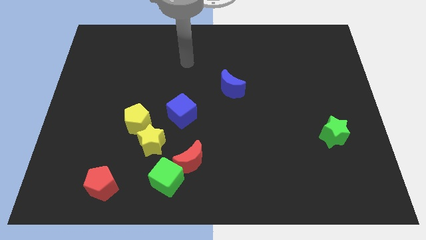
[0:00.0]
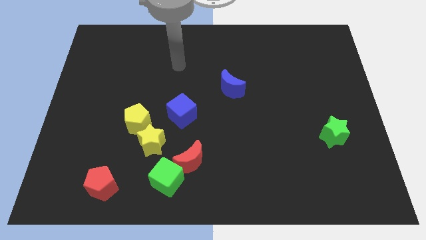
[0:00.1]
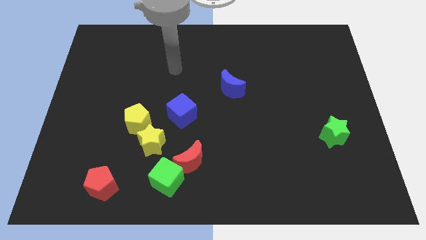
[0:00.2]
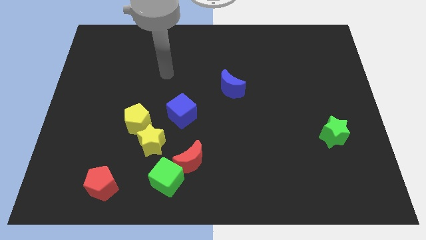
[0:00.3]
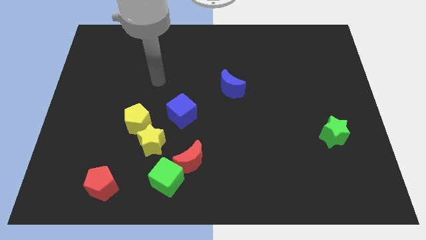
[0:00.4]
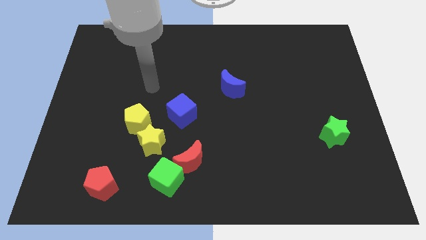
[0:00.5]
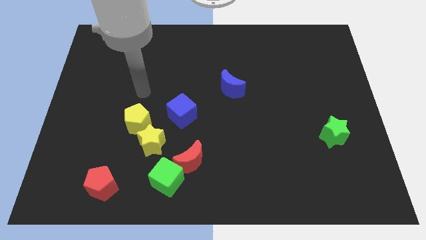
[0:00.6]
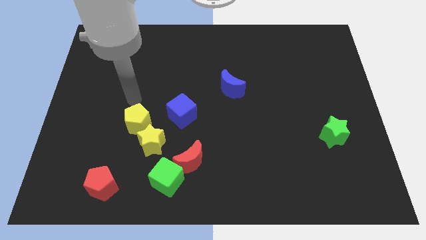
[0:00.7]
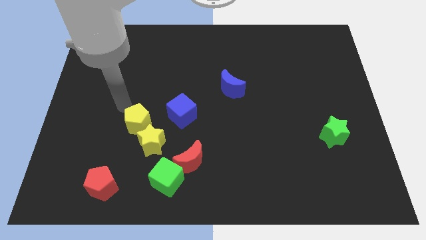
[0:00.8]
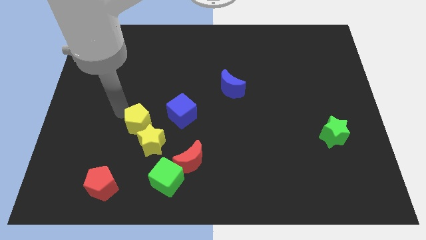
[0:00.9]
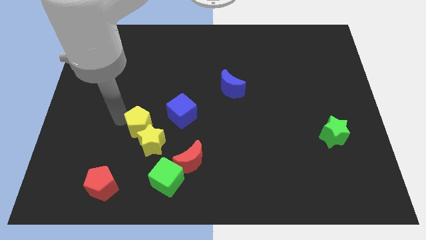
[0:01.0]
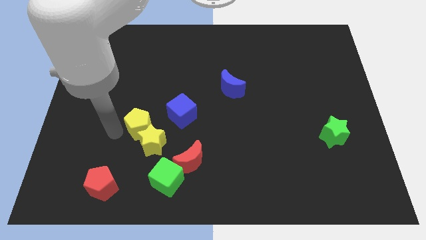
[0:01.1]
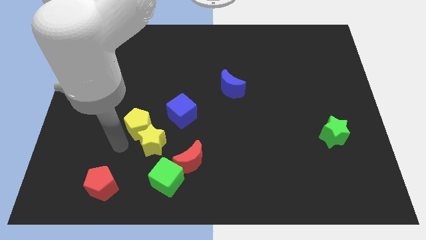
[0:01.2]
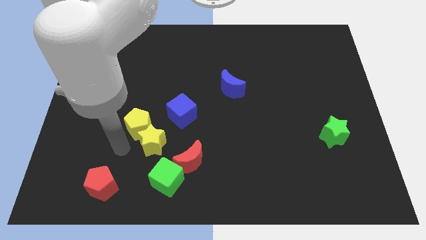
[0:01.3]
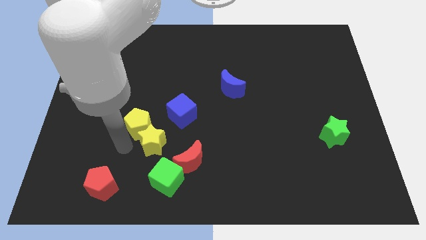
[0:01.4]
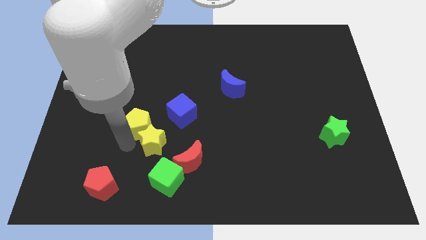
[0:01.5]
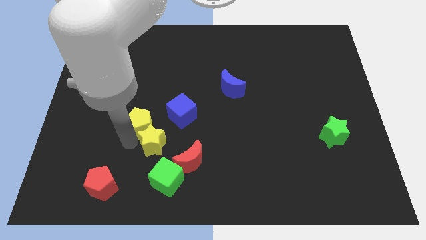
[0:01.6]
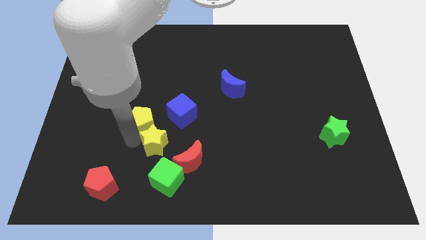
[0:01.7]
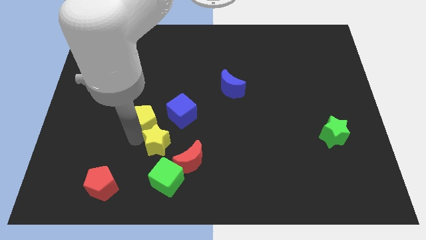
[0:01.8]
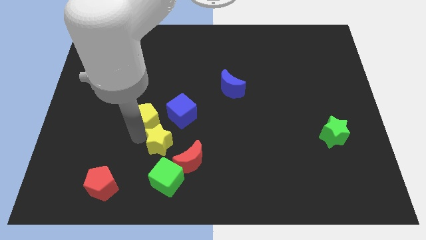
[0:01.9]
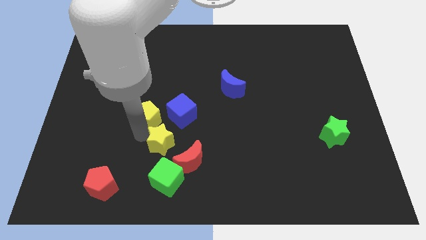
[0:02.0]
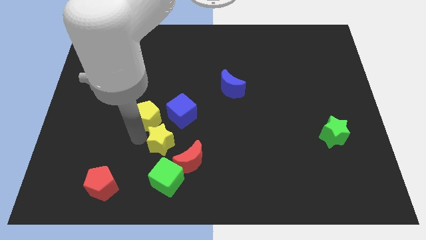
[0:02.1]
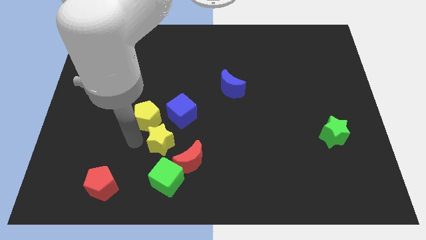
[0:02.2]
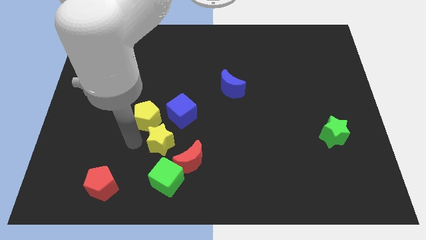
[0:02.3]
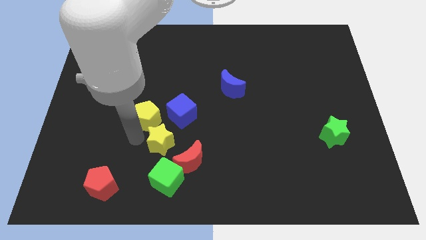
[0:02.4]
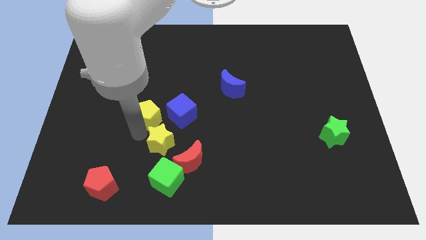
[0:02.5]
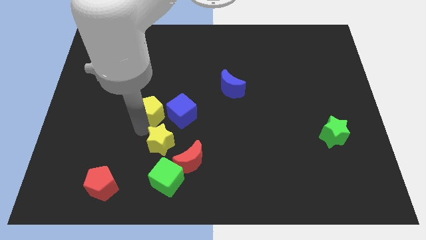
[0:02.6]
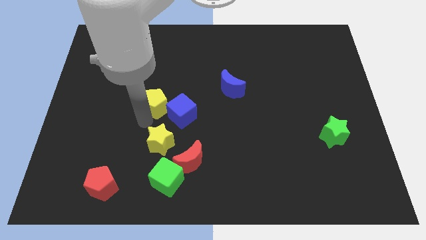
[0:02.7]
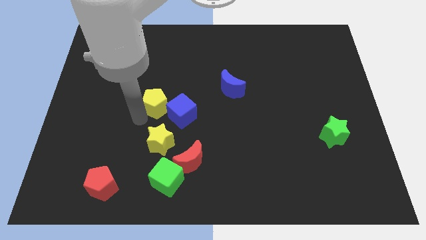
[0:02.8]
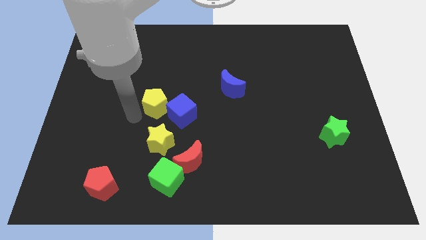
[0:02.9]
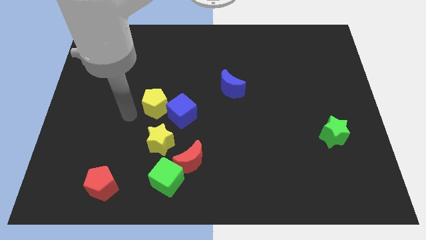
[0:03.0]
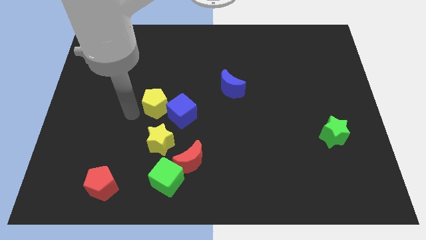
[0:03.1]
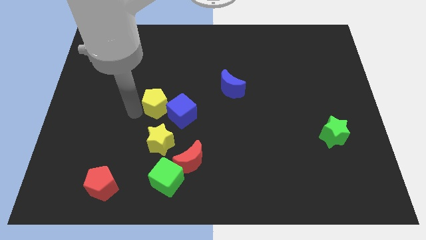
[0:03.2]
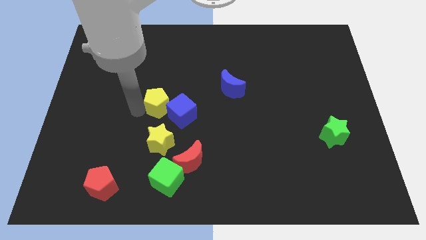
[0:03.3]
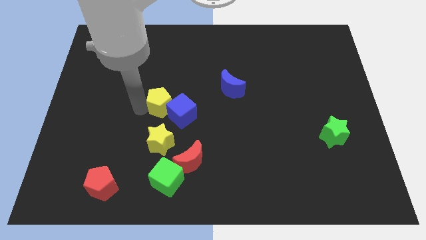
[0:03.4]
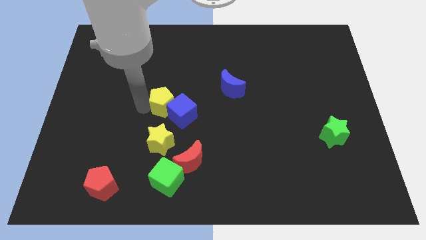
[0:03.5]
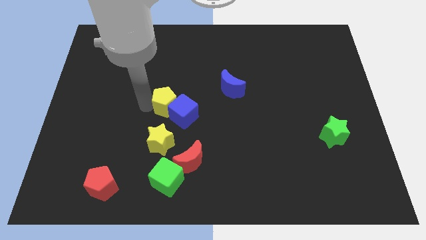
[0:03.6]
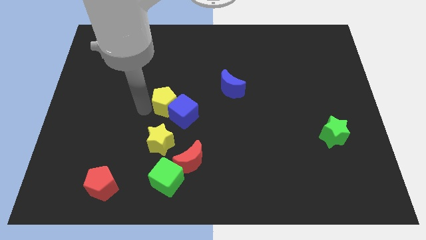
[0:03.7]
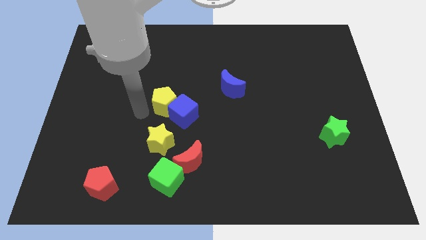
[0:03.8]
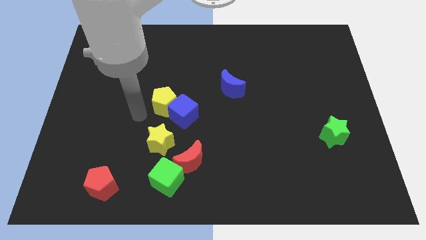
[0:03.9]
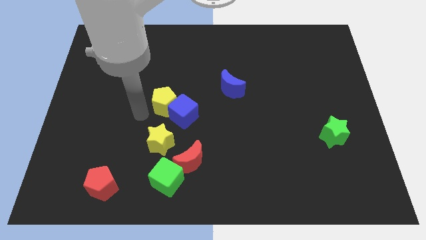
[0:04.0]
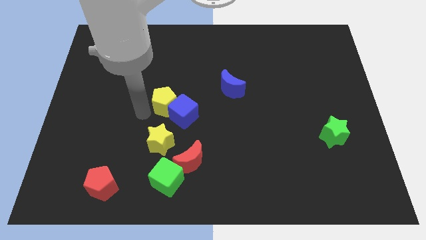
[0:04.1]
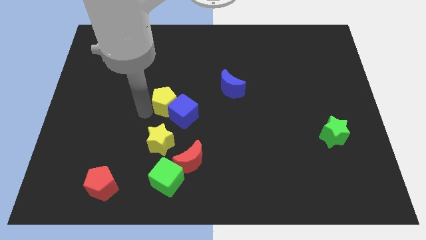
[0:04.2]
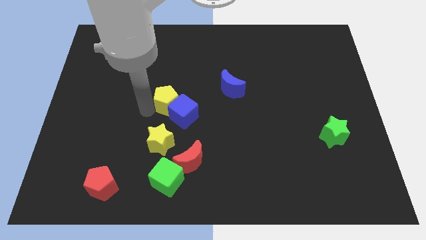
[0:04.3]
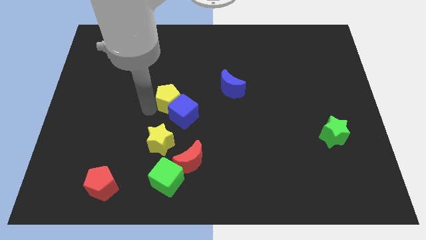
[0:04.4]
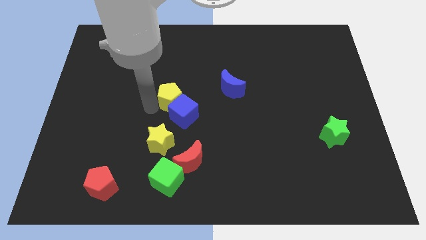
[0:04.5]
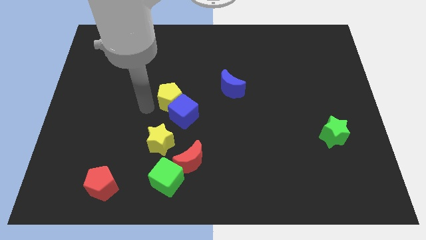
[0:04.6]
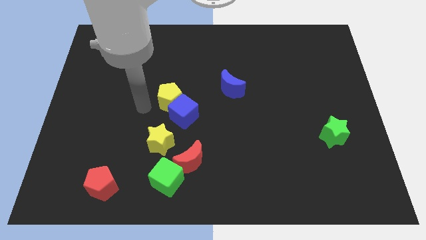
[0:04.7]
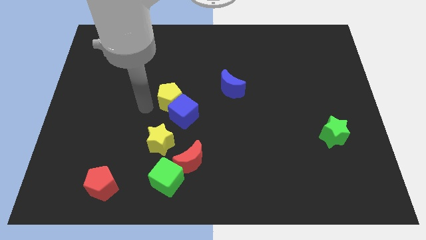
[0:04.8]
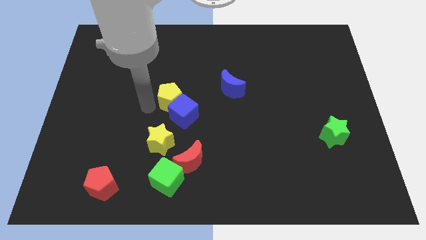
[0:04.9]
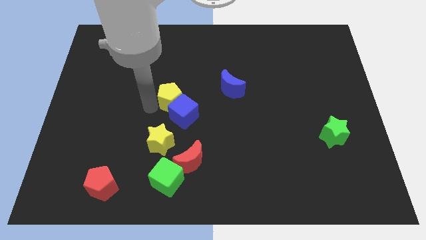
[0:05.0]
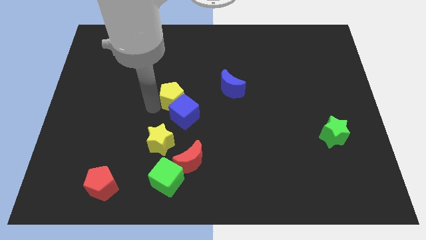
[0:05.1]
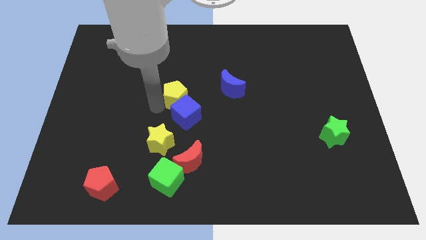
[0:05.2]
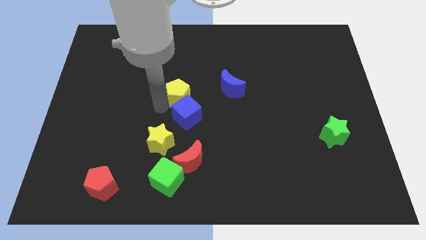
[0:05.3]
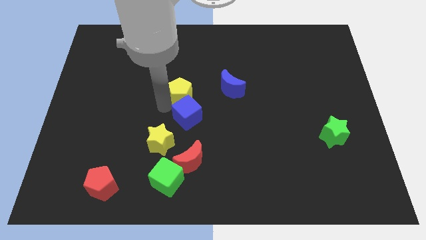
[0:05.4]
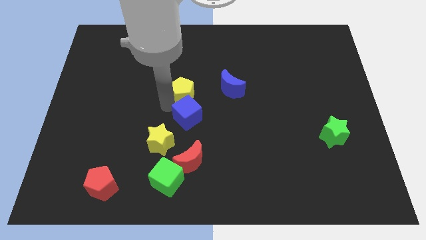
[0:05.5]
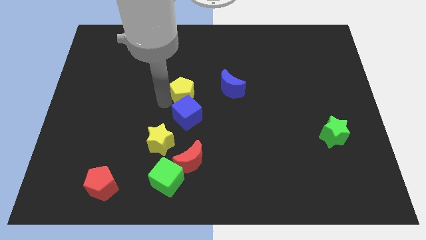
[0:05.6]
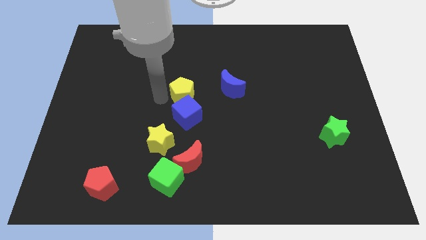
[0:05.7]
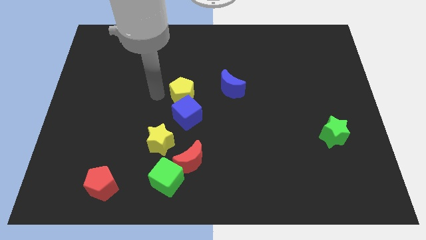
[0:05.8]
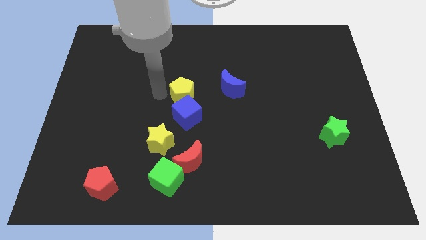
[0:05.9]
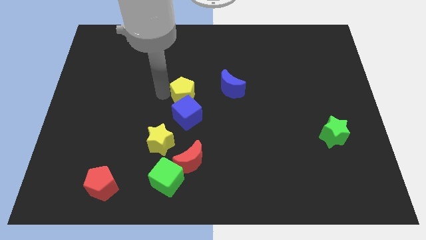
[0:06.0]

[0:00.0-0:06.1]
move the yellow pentagon to the top right side of the blue cube

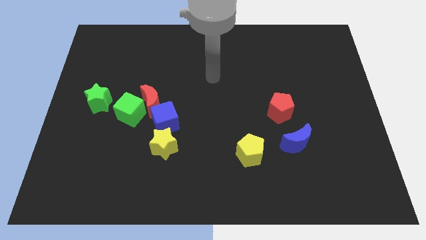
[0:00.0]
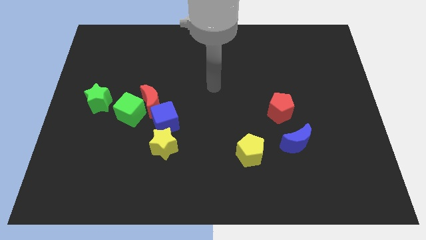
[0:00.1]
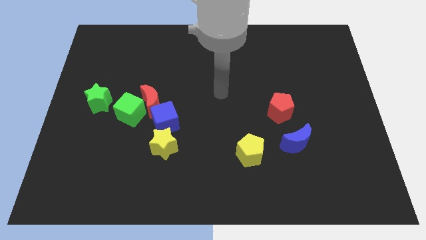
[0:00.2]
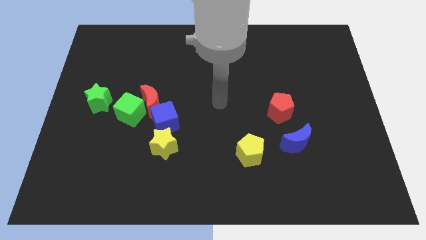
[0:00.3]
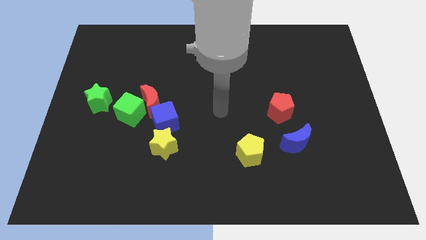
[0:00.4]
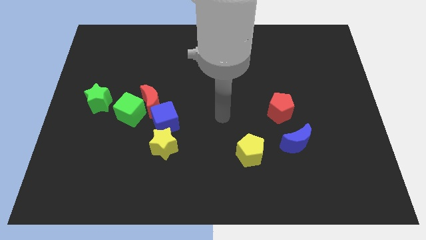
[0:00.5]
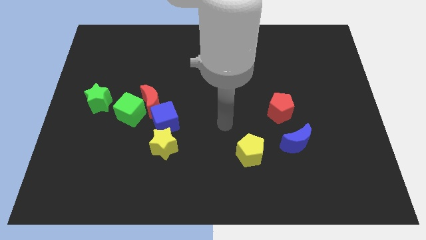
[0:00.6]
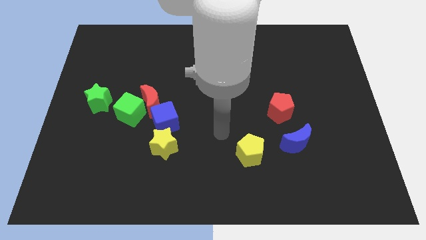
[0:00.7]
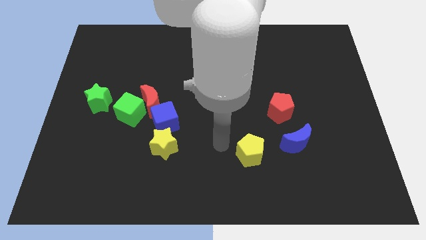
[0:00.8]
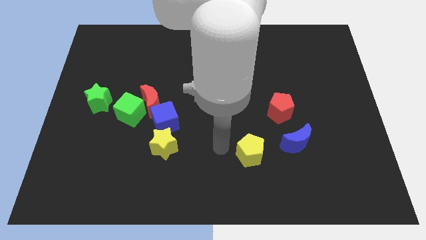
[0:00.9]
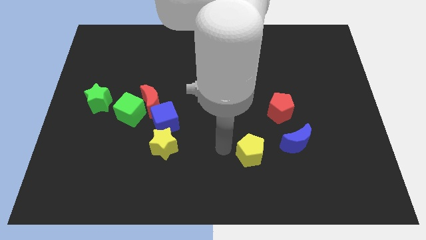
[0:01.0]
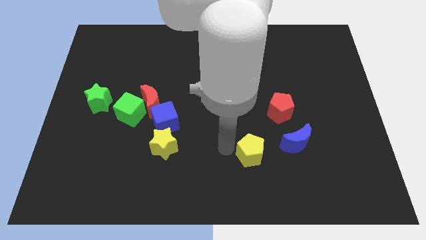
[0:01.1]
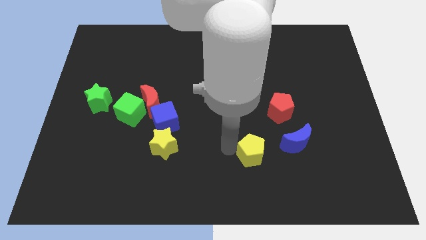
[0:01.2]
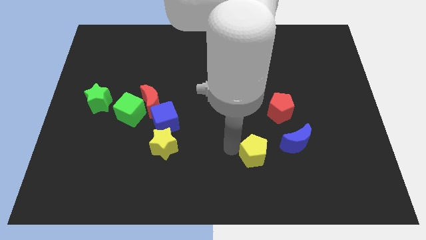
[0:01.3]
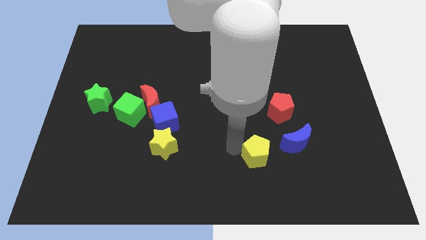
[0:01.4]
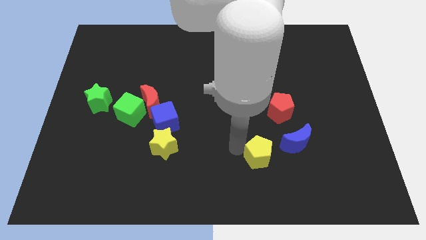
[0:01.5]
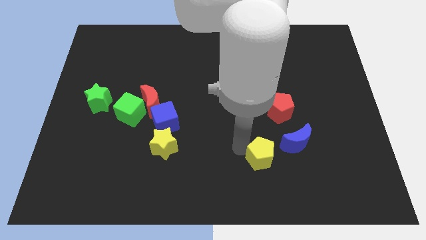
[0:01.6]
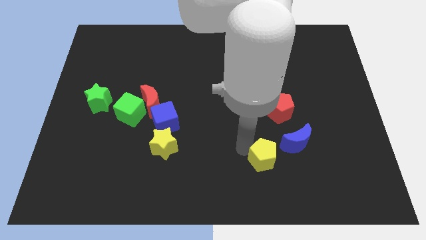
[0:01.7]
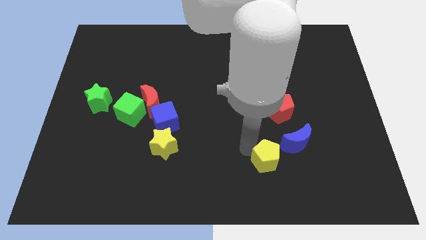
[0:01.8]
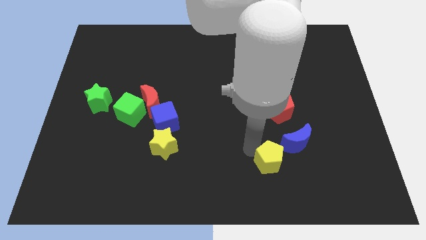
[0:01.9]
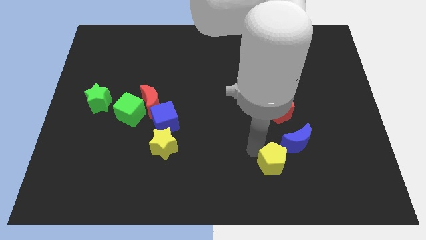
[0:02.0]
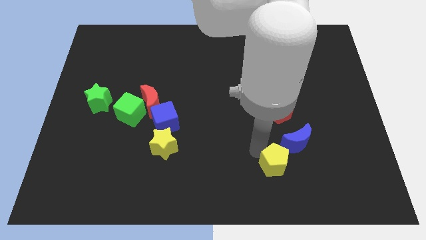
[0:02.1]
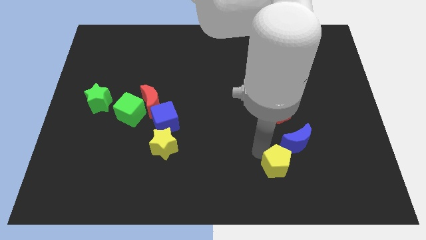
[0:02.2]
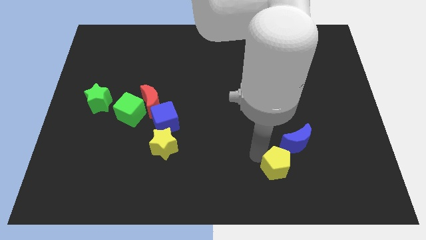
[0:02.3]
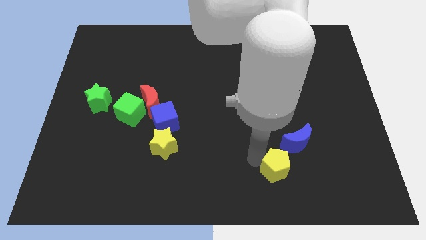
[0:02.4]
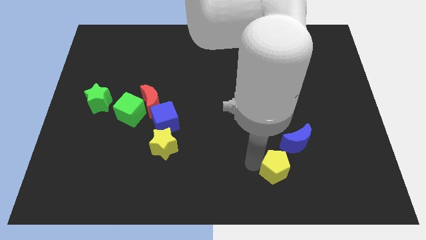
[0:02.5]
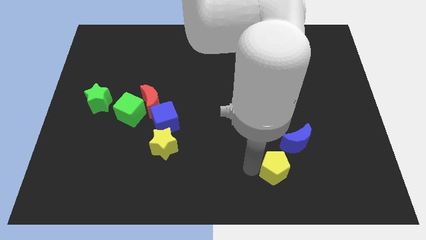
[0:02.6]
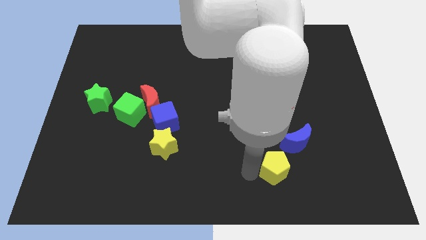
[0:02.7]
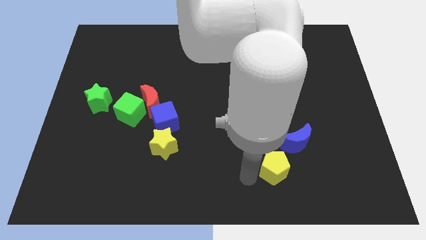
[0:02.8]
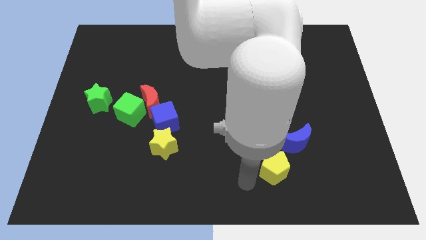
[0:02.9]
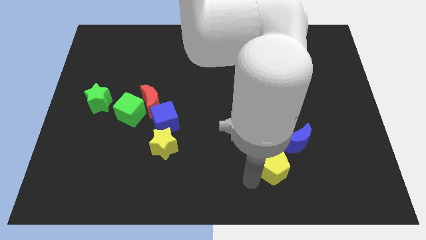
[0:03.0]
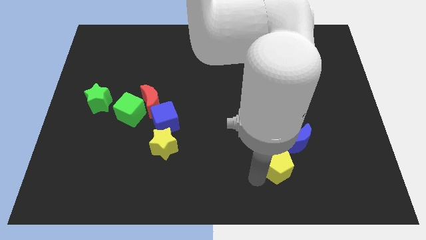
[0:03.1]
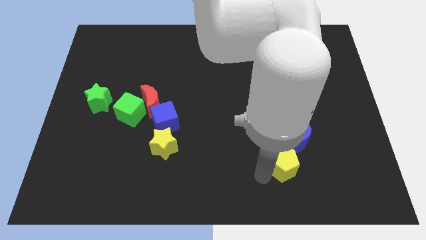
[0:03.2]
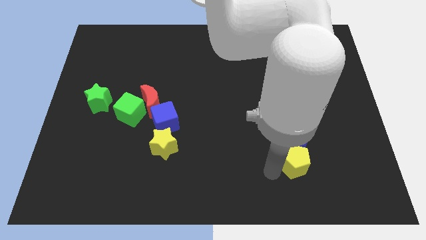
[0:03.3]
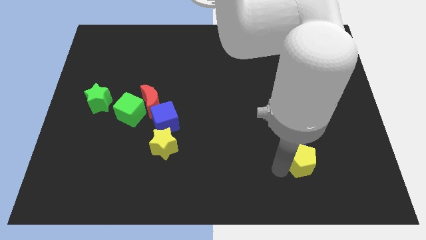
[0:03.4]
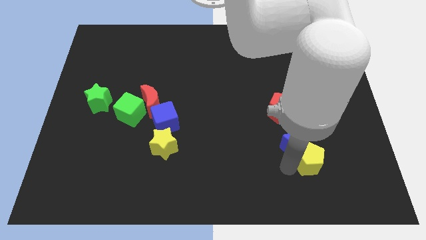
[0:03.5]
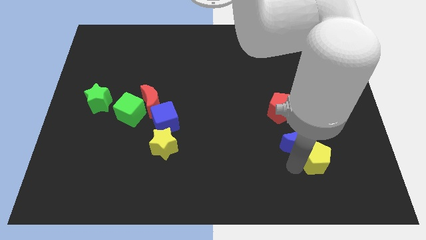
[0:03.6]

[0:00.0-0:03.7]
move the yellow pentagon just right of the blue moon
